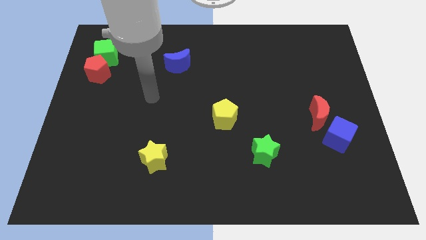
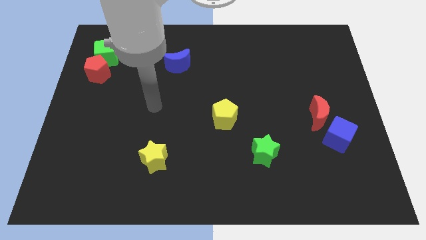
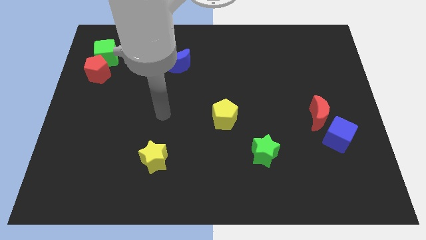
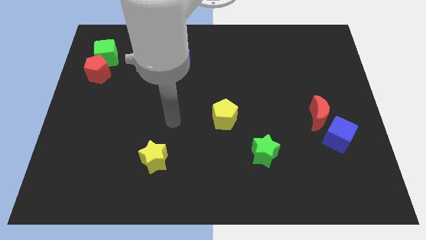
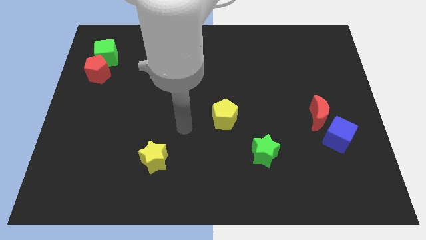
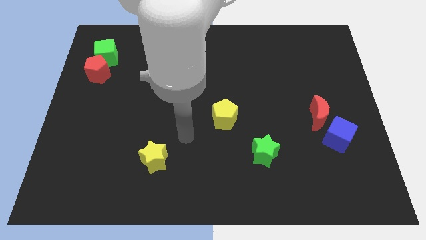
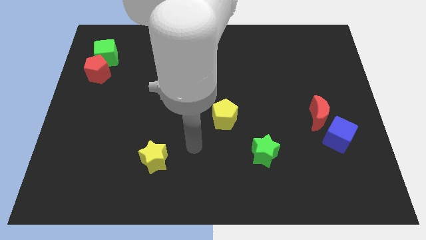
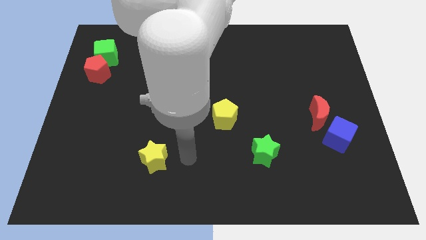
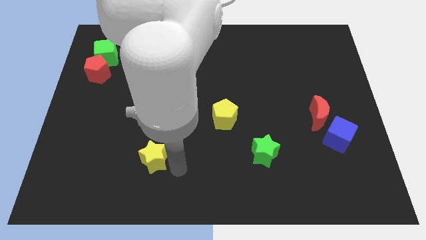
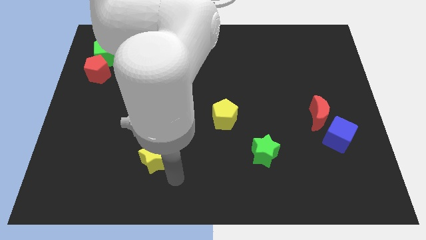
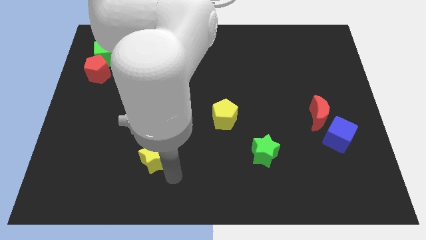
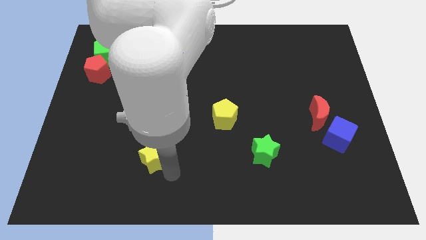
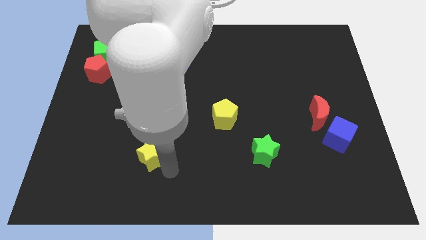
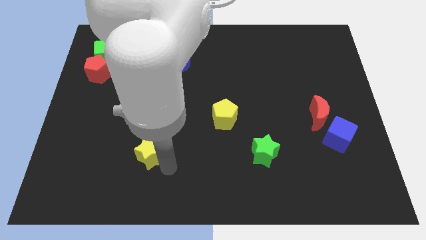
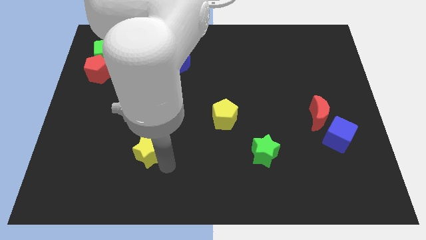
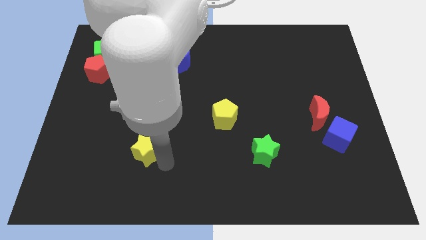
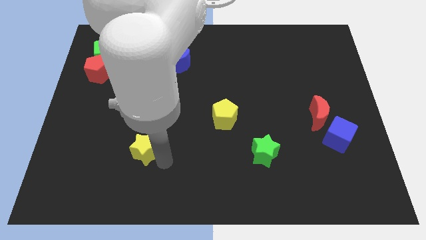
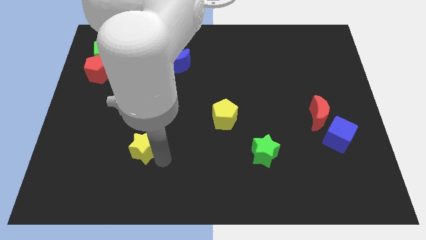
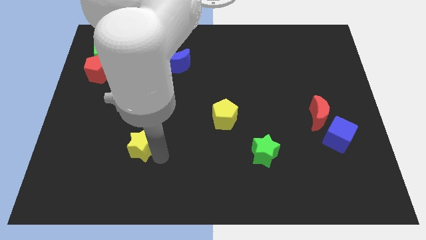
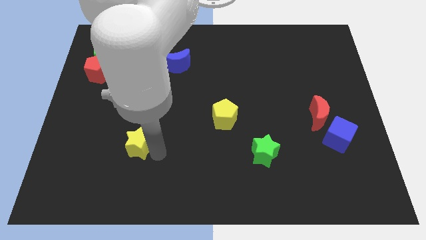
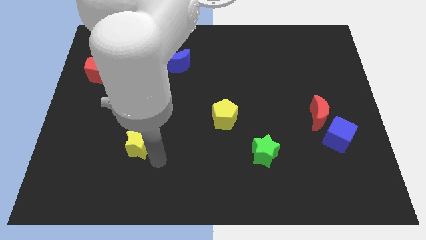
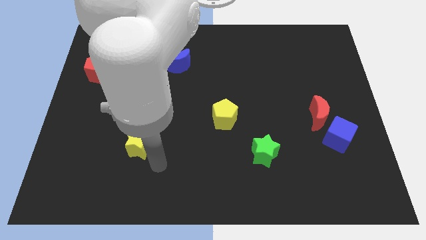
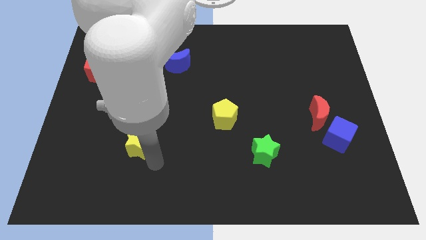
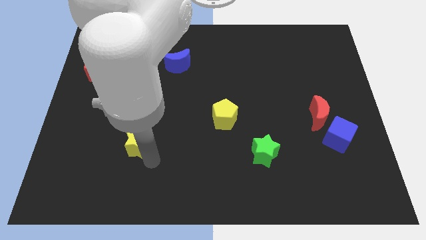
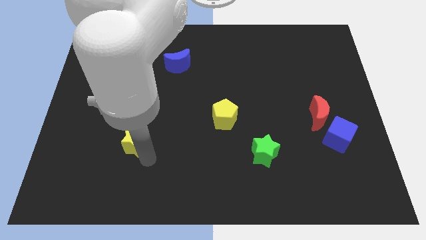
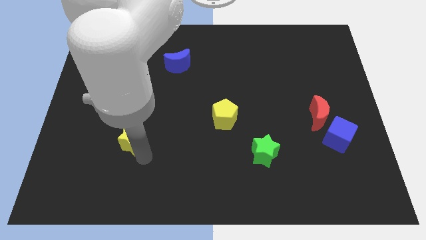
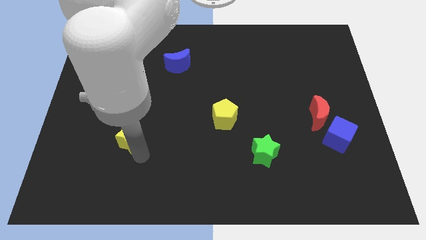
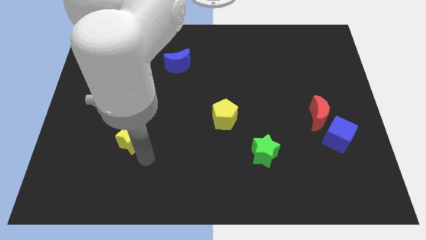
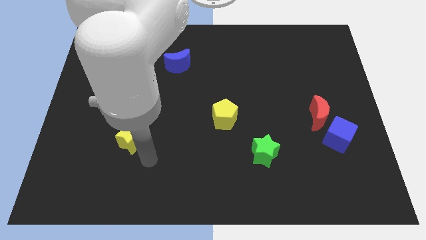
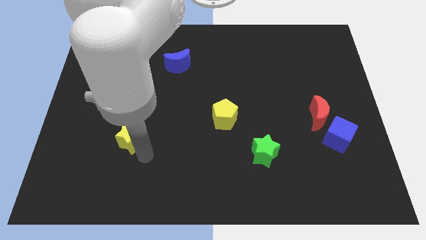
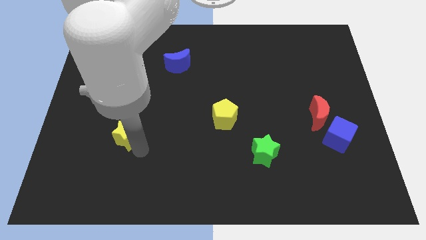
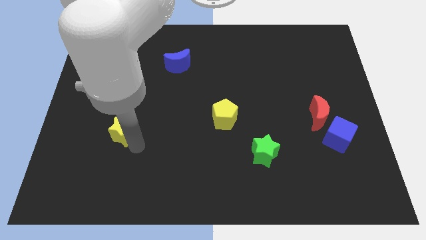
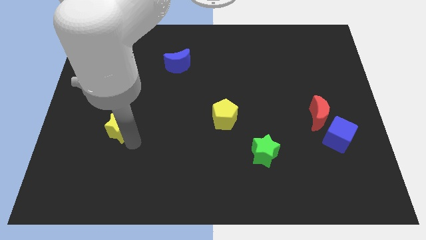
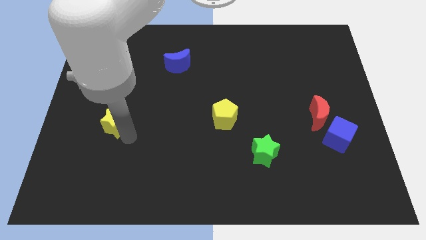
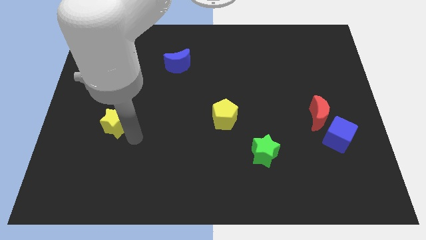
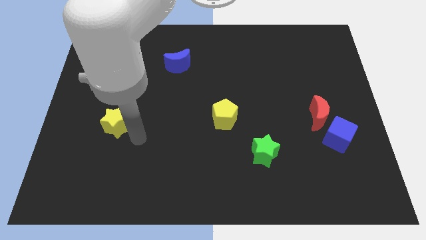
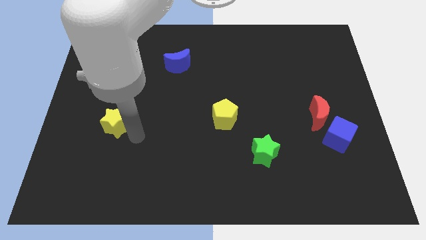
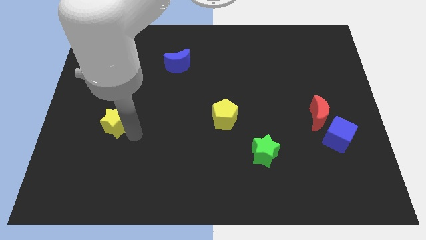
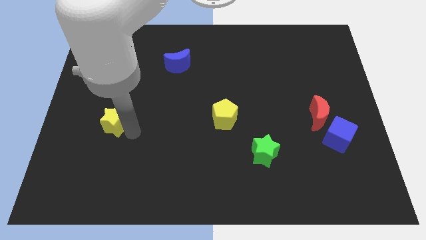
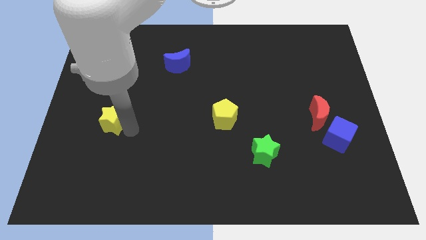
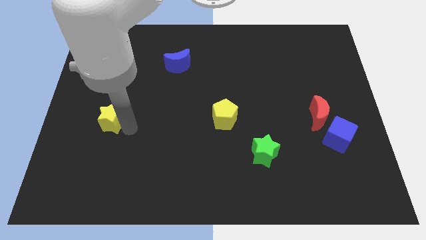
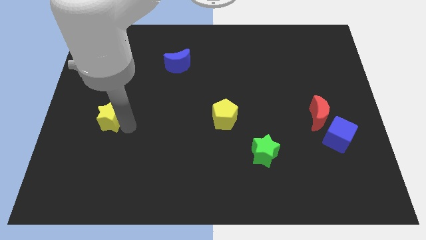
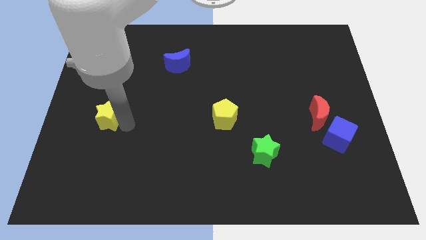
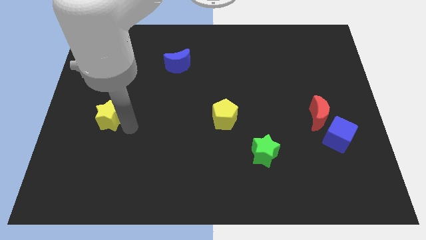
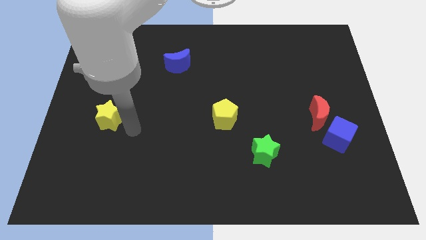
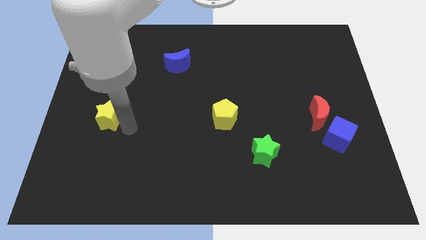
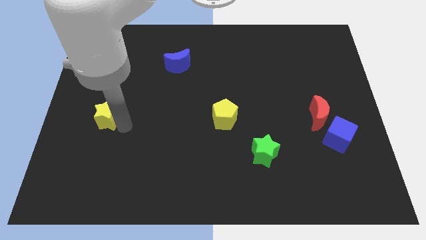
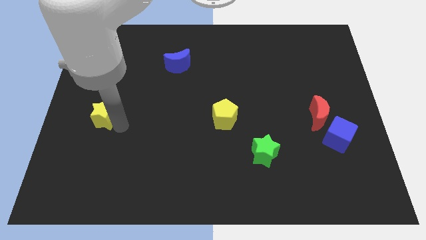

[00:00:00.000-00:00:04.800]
slide the yellow star to the bottom of the red pentagon

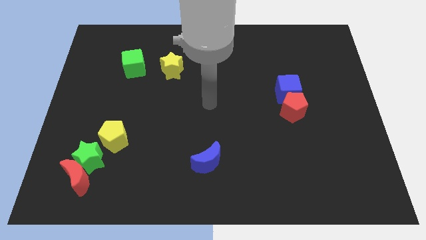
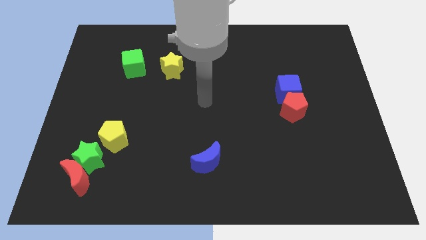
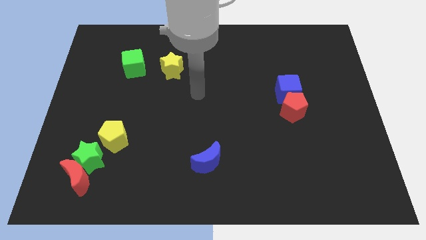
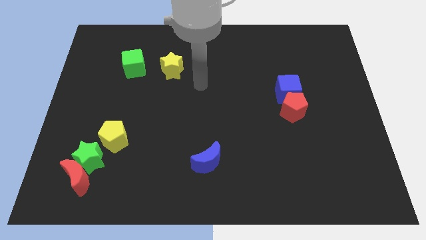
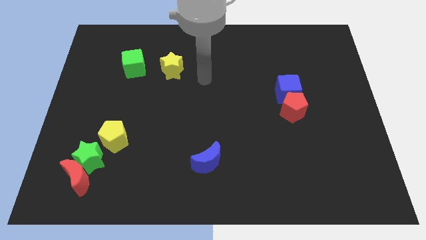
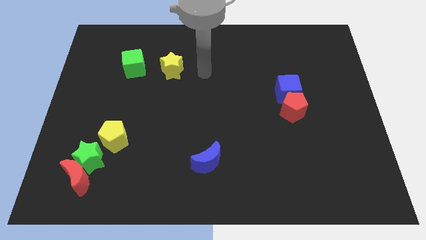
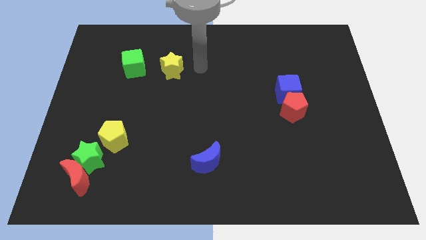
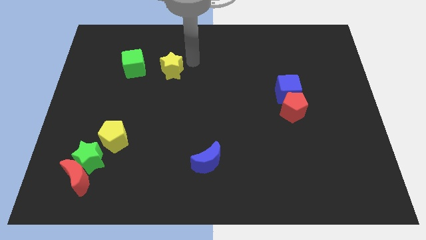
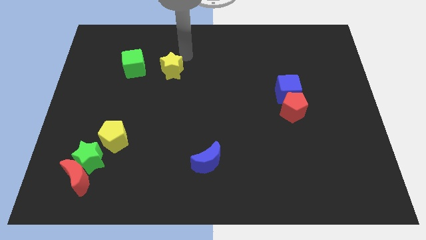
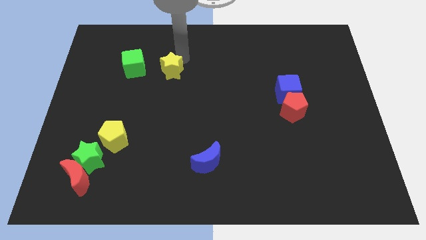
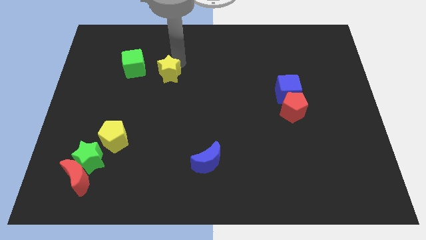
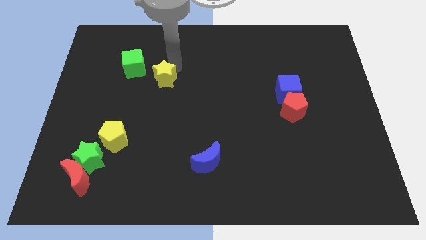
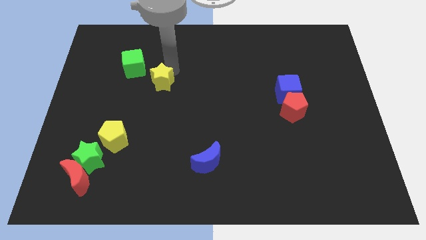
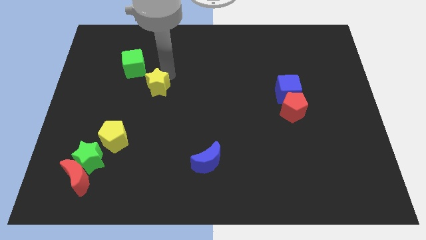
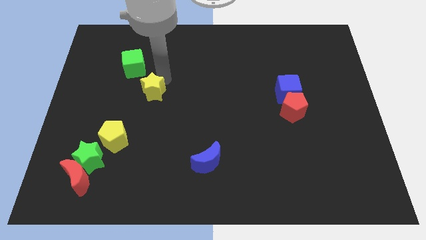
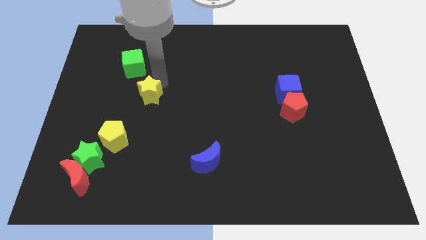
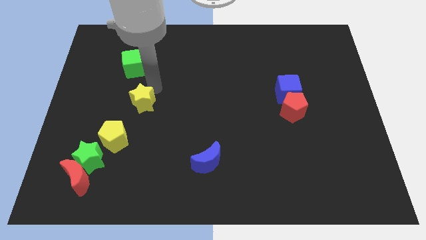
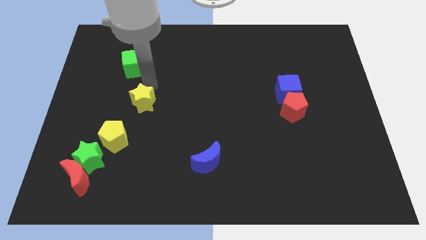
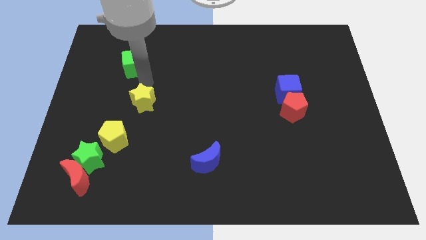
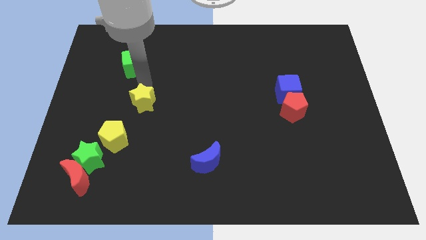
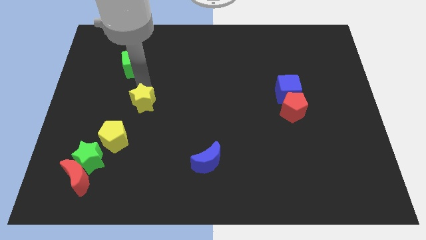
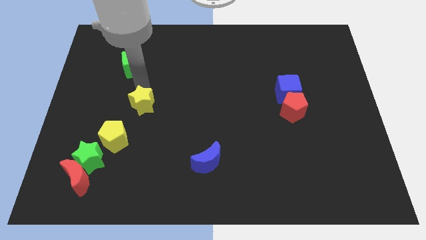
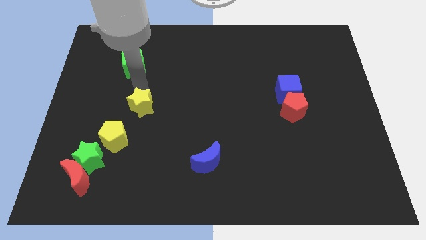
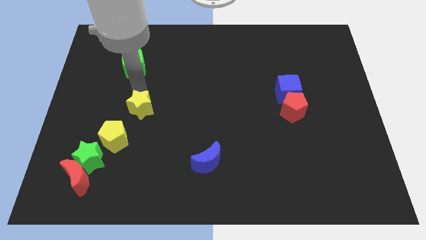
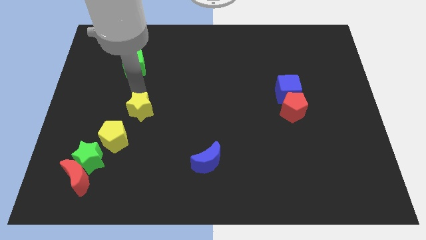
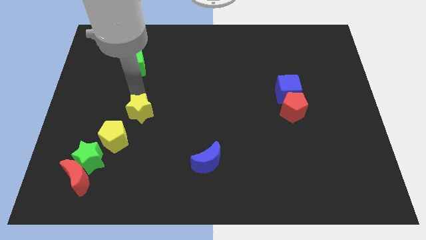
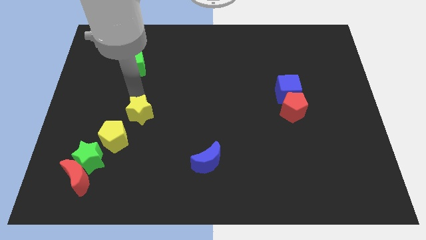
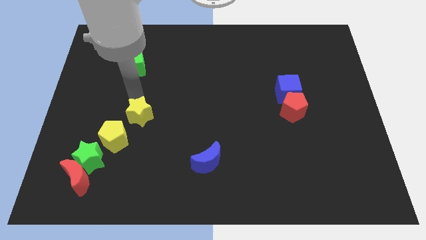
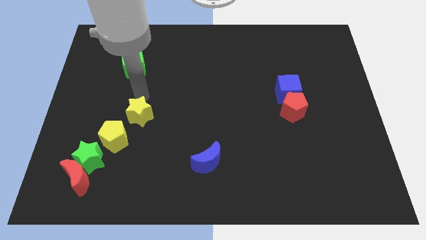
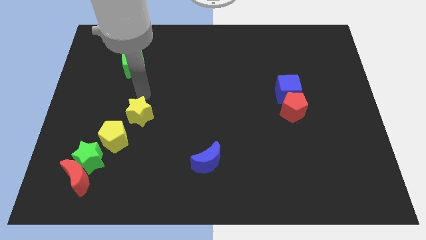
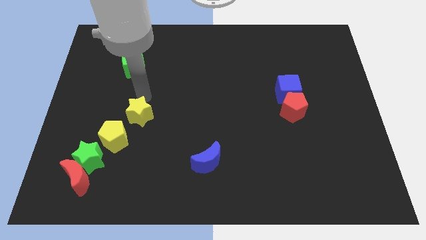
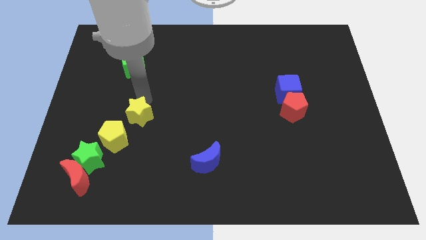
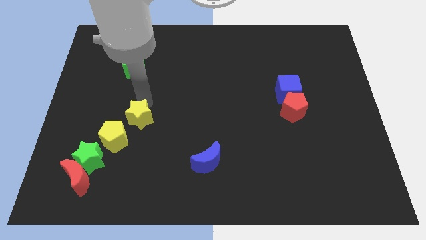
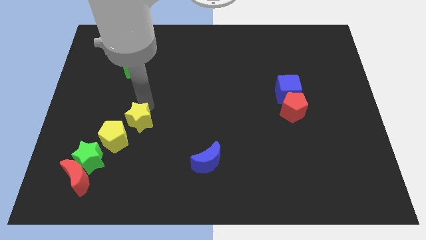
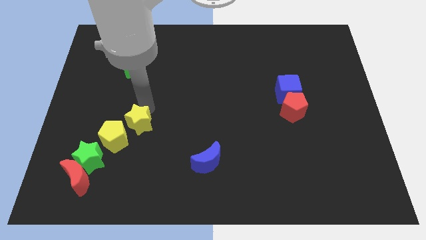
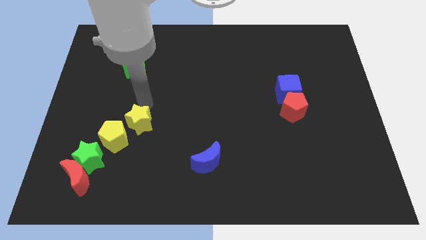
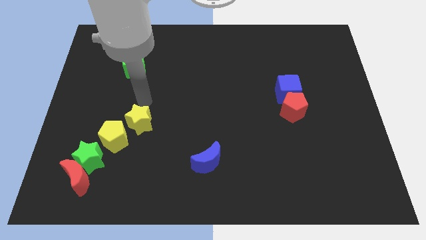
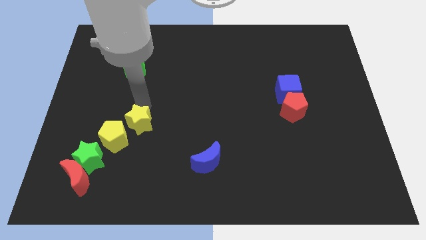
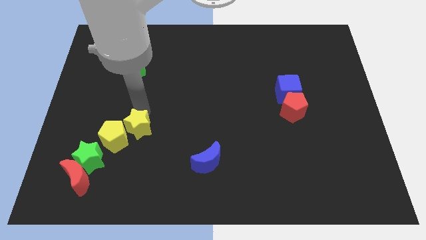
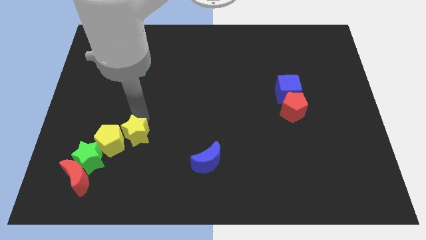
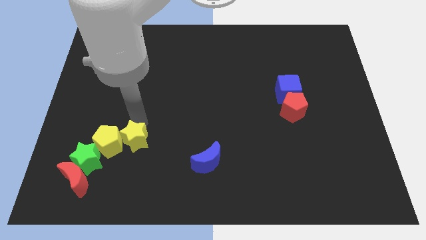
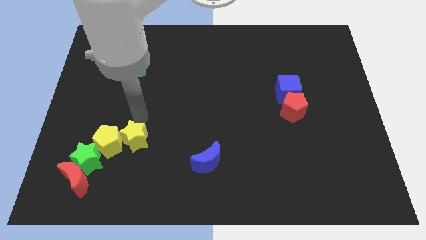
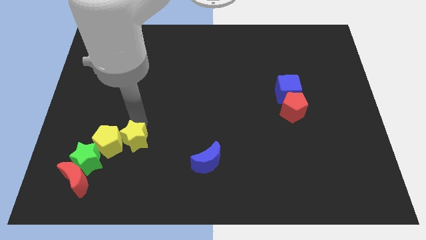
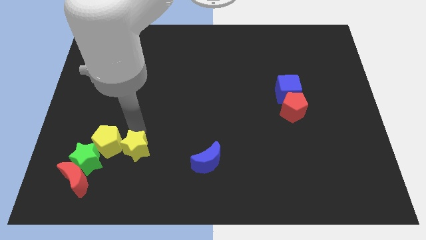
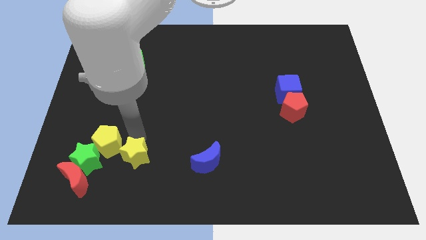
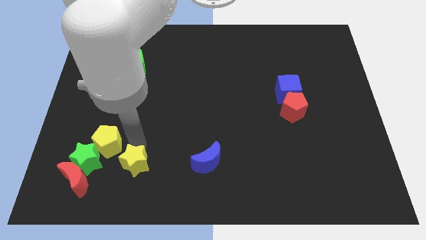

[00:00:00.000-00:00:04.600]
move the yellow star just right of the red moon
